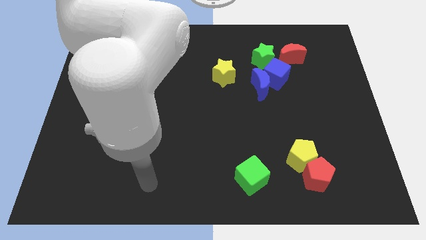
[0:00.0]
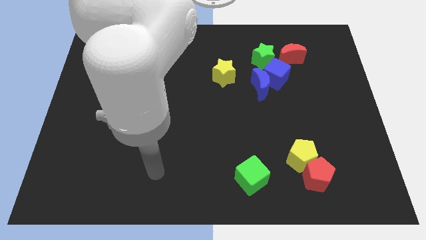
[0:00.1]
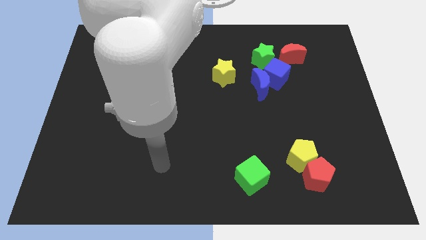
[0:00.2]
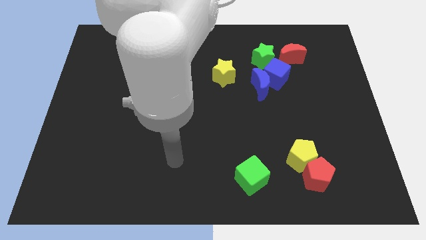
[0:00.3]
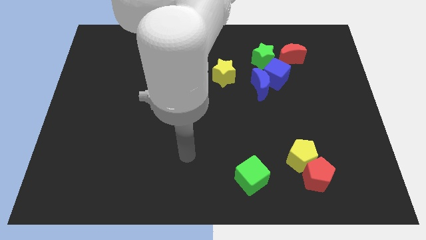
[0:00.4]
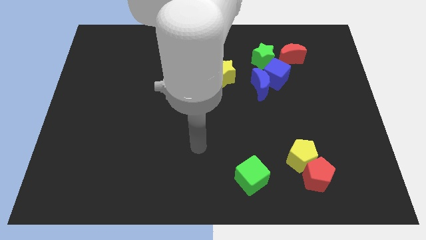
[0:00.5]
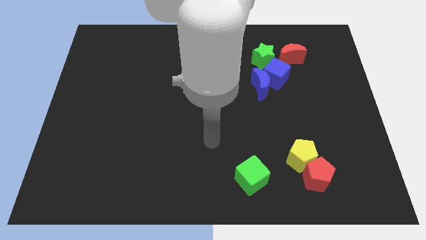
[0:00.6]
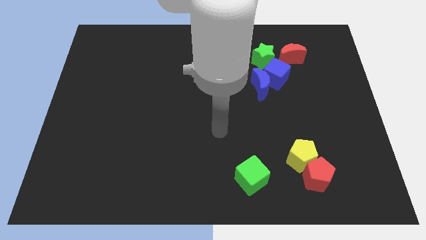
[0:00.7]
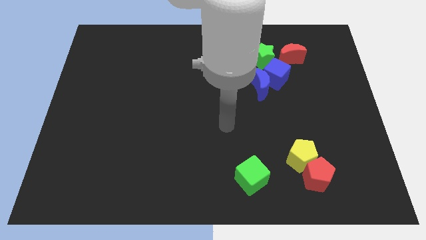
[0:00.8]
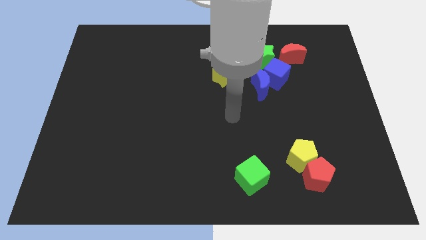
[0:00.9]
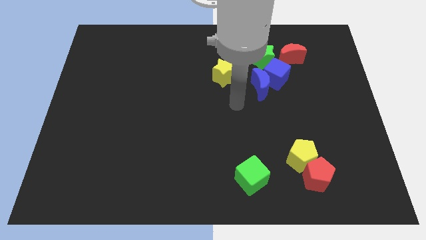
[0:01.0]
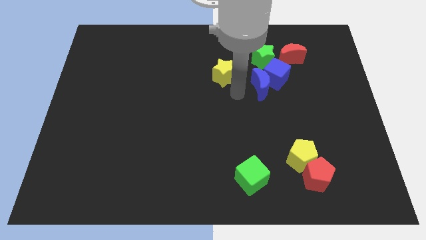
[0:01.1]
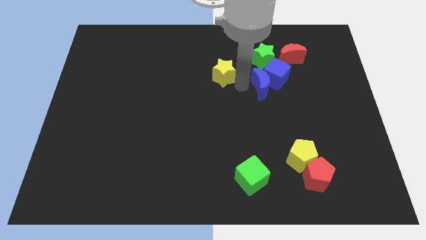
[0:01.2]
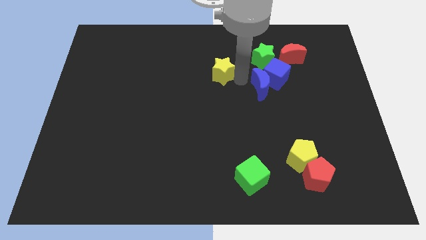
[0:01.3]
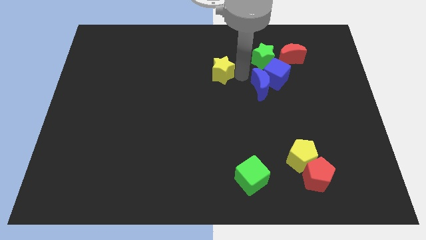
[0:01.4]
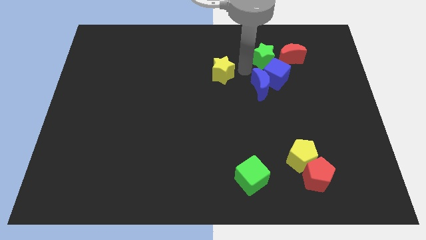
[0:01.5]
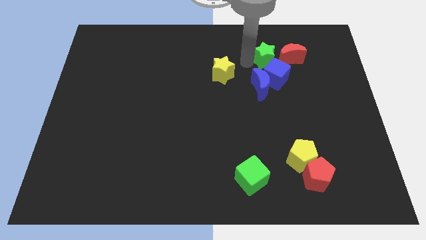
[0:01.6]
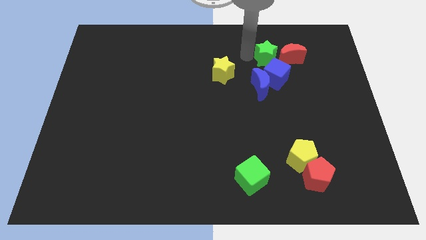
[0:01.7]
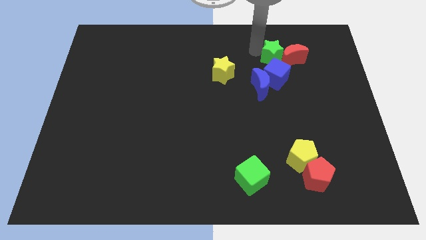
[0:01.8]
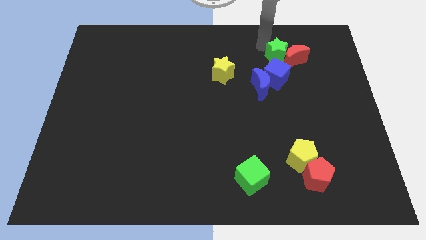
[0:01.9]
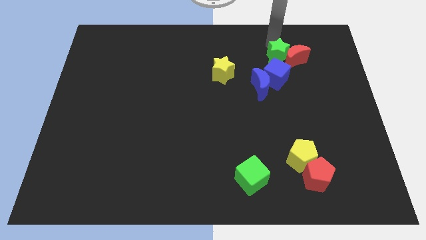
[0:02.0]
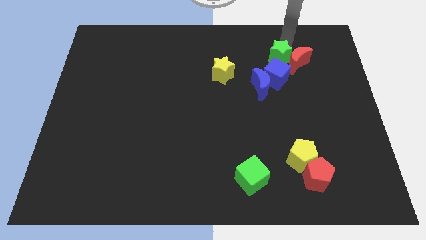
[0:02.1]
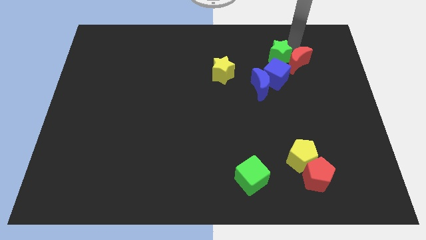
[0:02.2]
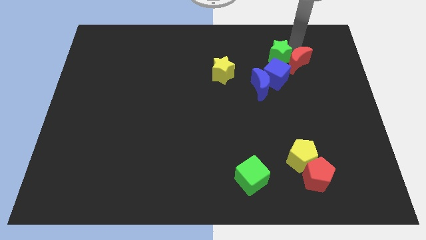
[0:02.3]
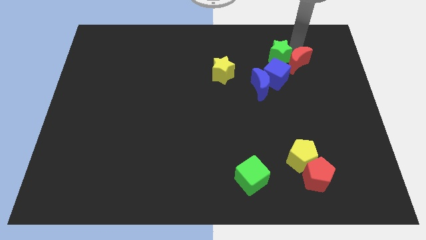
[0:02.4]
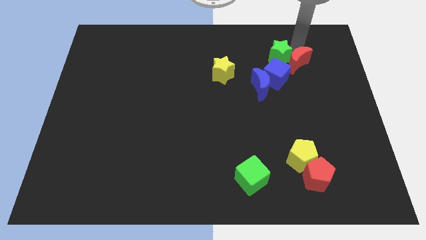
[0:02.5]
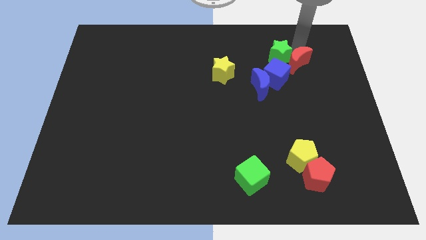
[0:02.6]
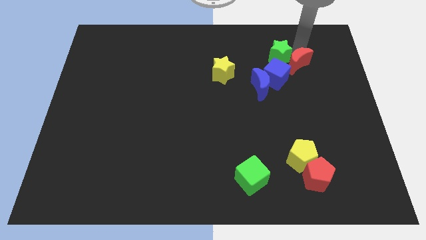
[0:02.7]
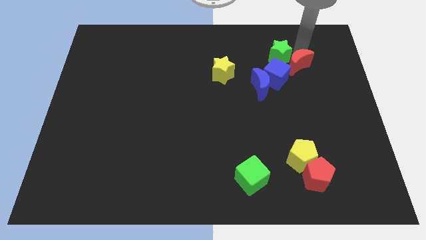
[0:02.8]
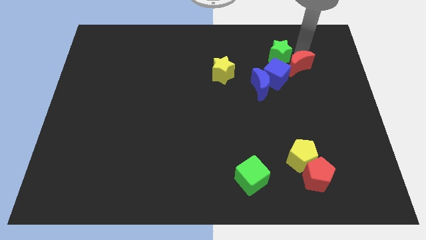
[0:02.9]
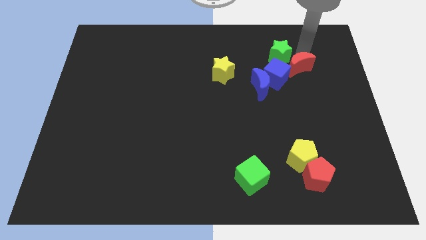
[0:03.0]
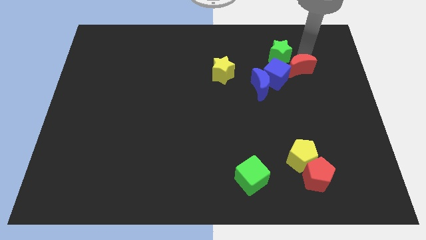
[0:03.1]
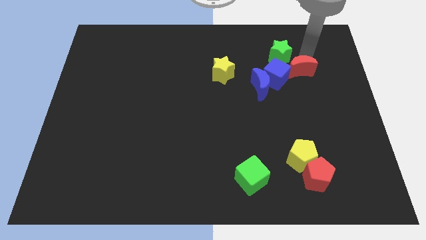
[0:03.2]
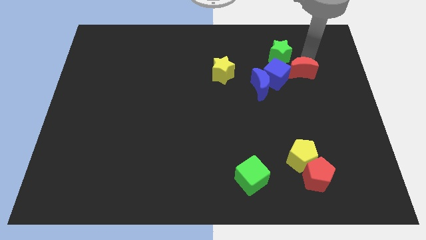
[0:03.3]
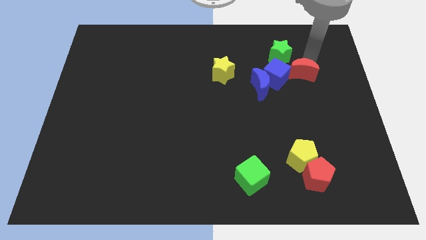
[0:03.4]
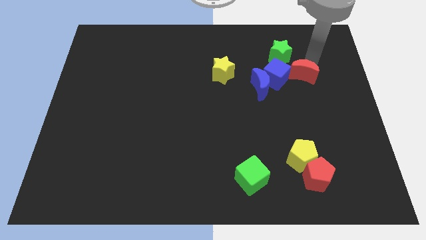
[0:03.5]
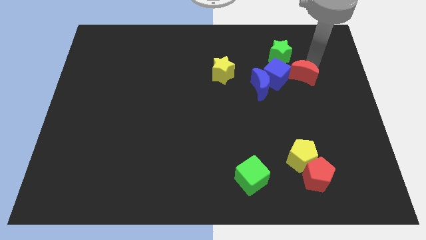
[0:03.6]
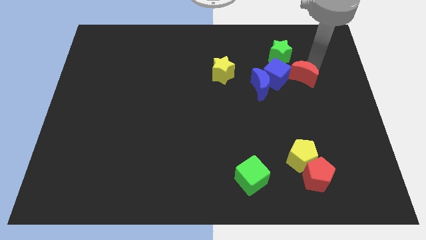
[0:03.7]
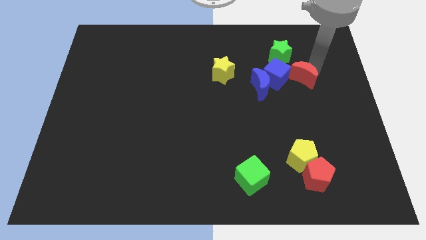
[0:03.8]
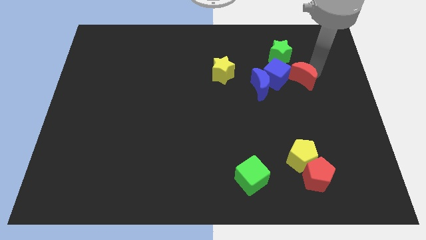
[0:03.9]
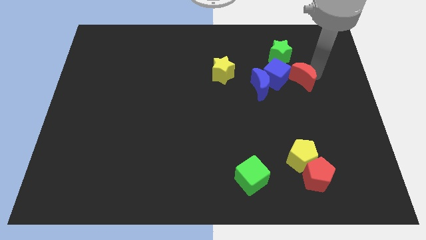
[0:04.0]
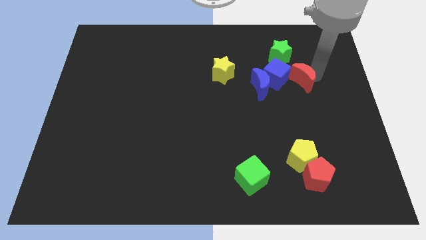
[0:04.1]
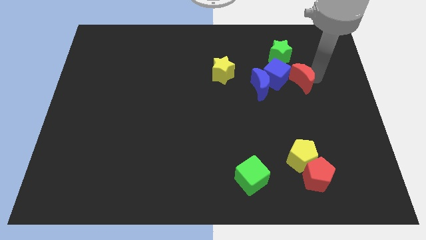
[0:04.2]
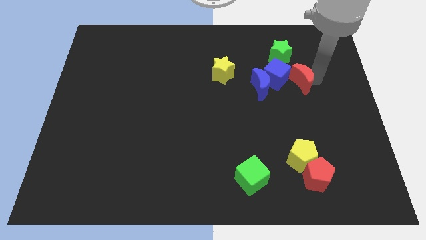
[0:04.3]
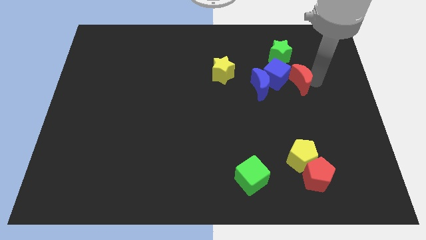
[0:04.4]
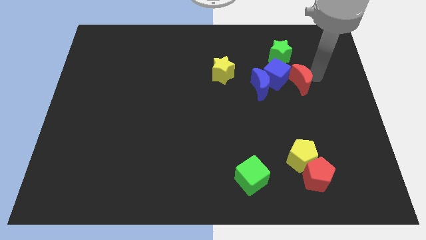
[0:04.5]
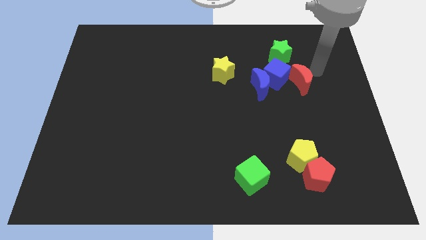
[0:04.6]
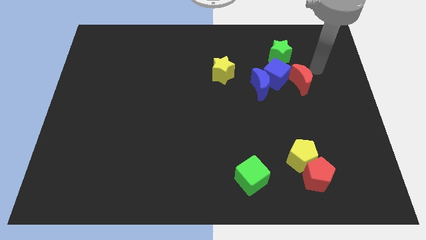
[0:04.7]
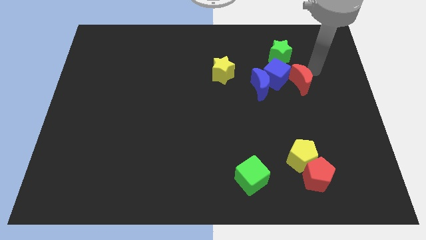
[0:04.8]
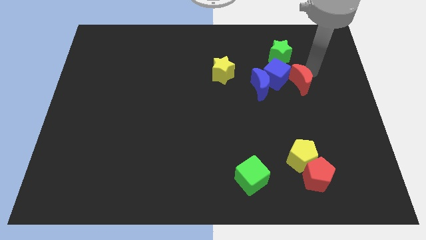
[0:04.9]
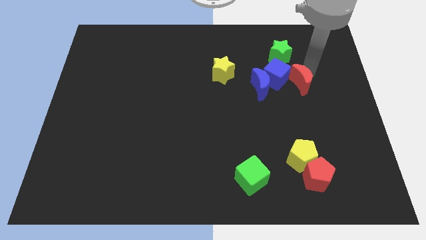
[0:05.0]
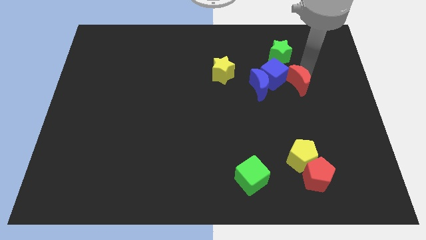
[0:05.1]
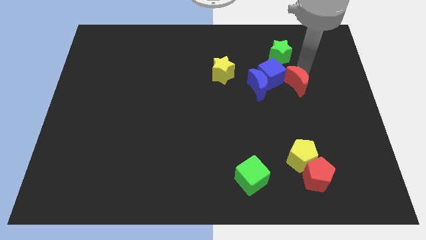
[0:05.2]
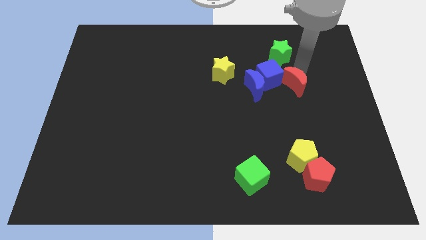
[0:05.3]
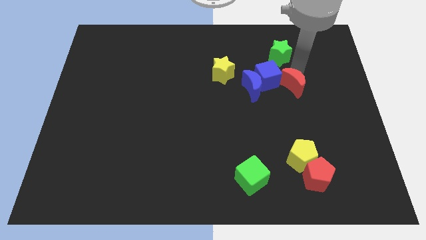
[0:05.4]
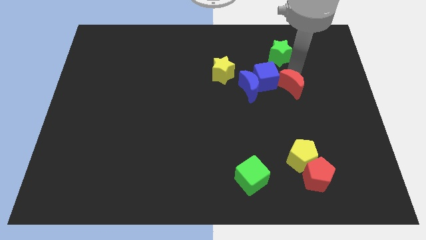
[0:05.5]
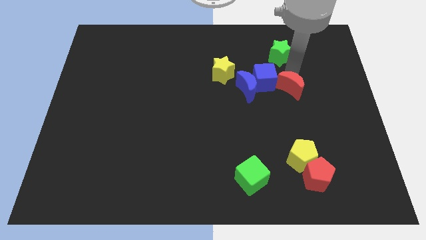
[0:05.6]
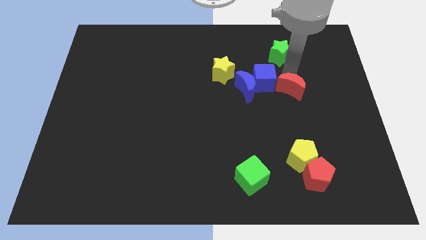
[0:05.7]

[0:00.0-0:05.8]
slide the red moon diagonally downwards and to the left a little

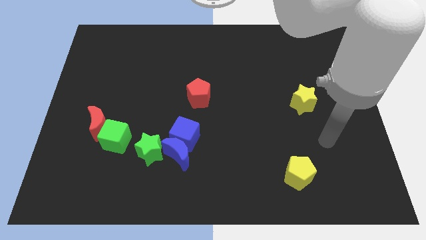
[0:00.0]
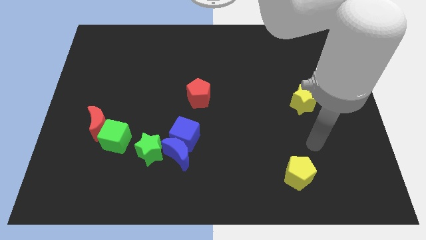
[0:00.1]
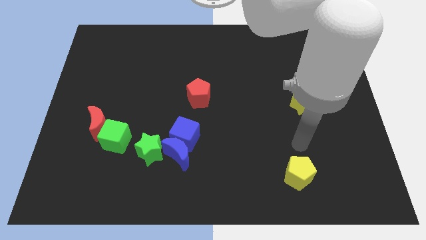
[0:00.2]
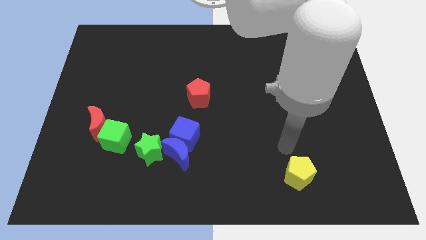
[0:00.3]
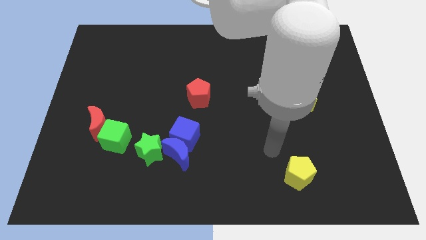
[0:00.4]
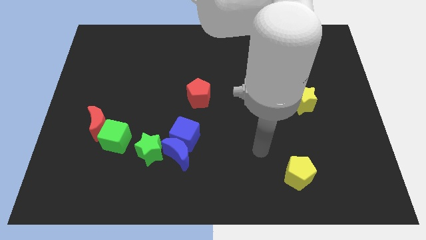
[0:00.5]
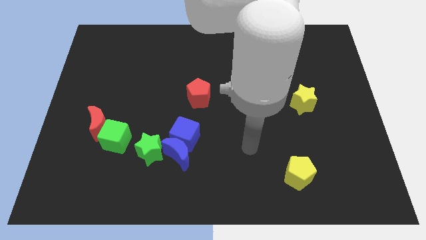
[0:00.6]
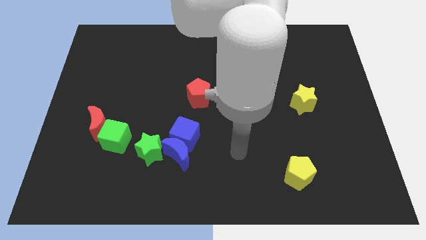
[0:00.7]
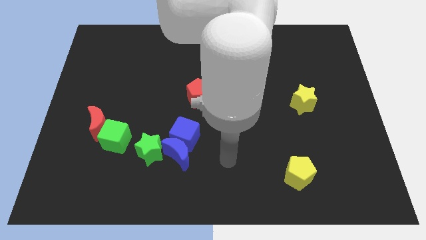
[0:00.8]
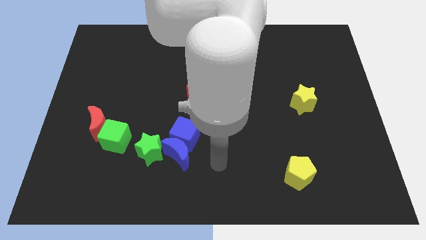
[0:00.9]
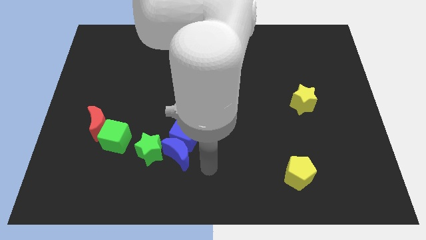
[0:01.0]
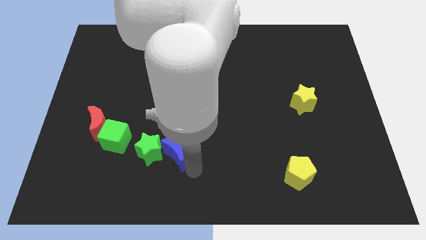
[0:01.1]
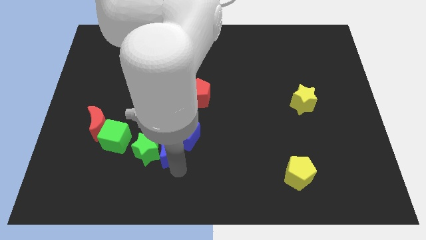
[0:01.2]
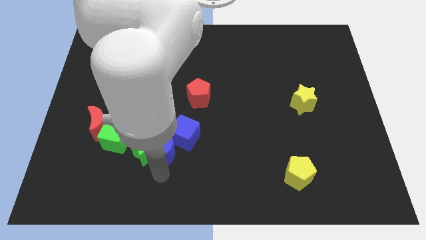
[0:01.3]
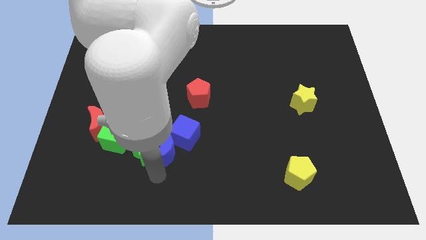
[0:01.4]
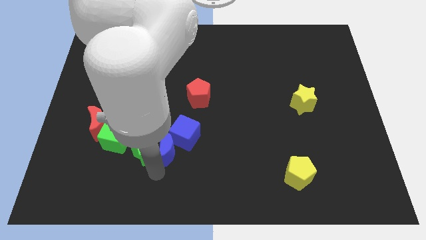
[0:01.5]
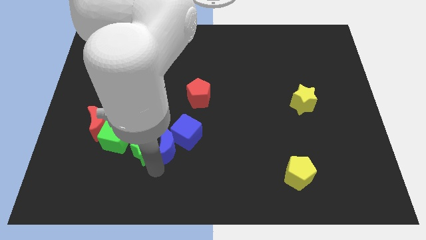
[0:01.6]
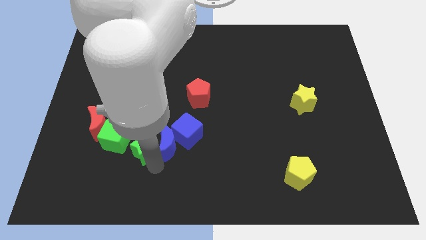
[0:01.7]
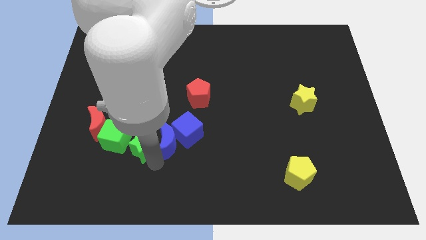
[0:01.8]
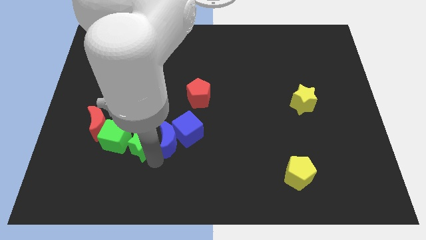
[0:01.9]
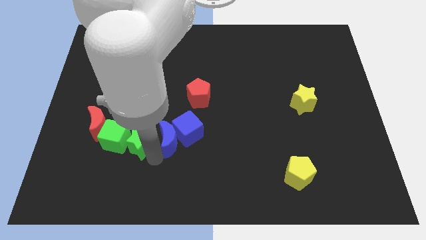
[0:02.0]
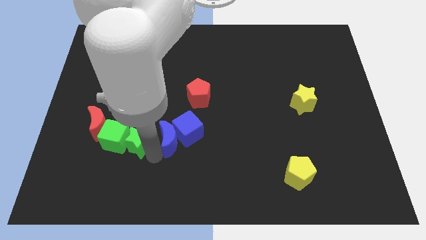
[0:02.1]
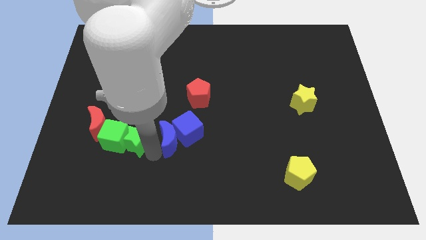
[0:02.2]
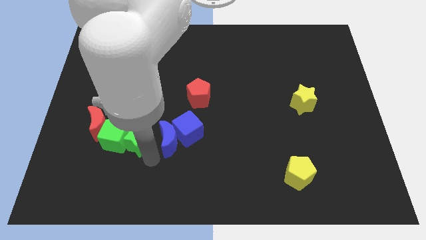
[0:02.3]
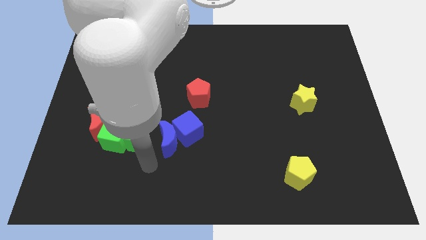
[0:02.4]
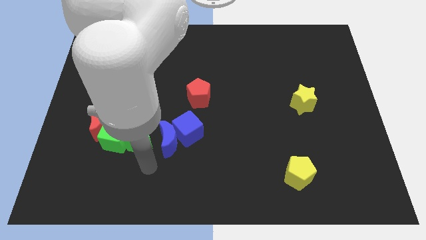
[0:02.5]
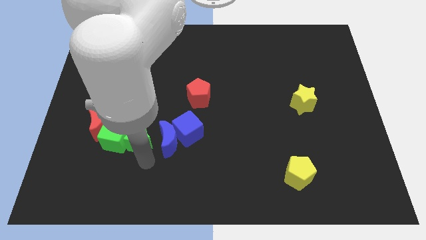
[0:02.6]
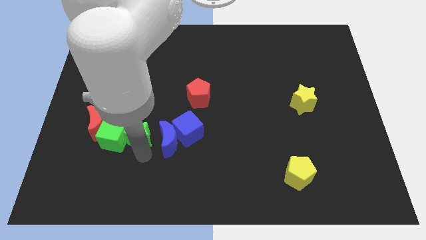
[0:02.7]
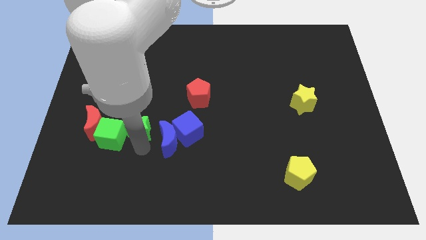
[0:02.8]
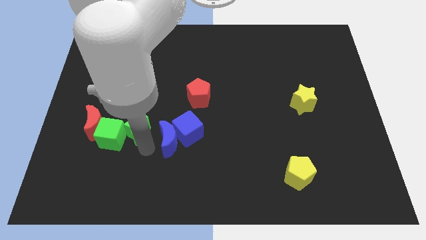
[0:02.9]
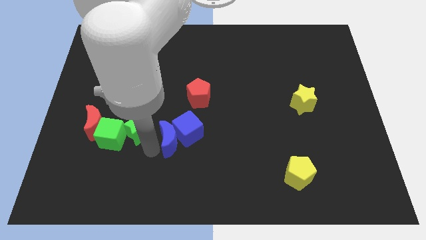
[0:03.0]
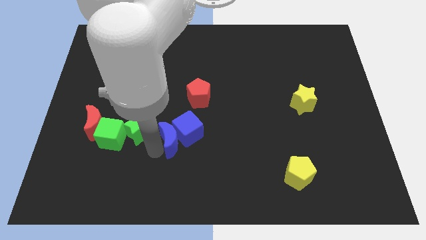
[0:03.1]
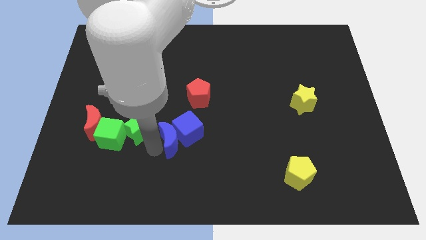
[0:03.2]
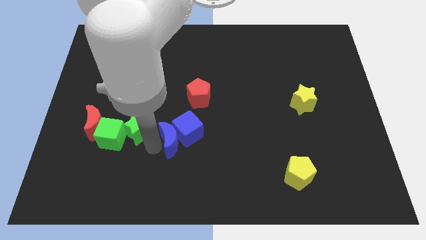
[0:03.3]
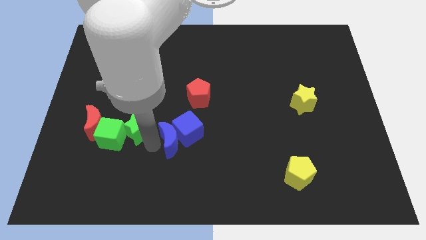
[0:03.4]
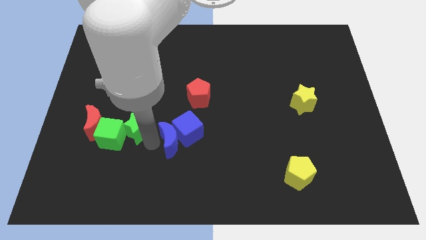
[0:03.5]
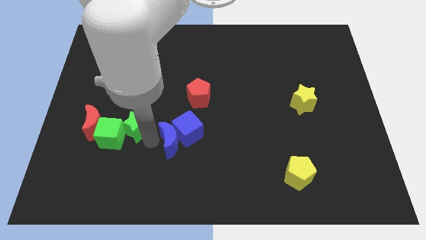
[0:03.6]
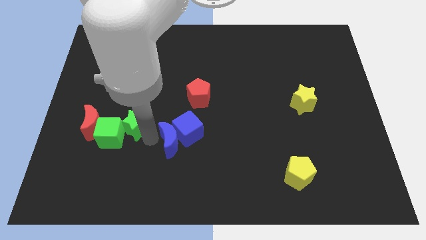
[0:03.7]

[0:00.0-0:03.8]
slightly push the green star upwards and to the left diagonally
